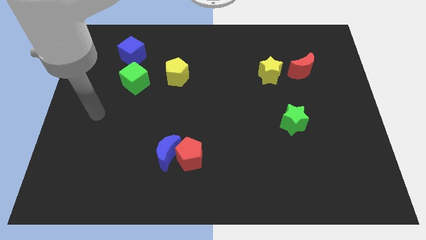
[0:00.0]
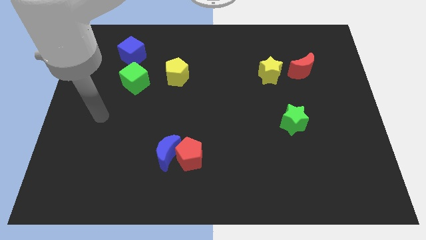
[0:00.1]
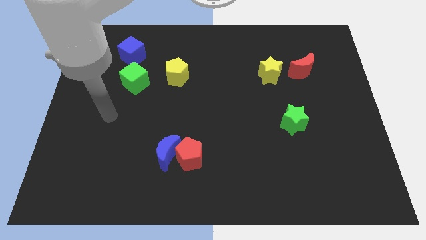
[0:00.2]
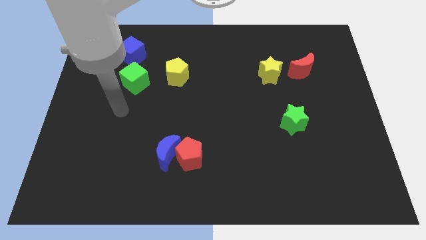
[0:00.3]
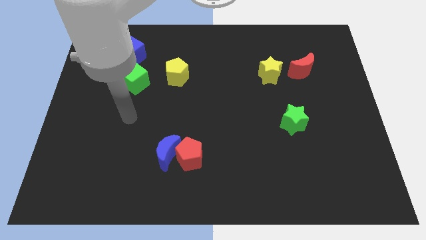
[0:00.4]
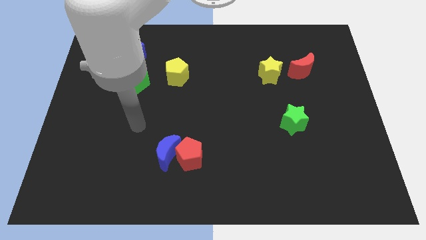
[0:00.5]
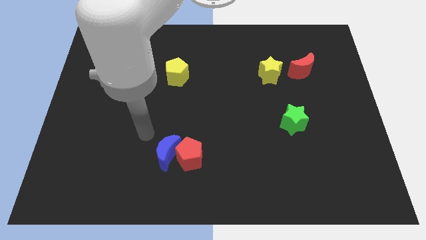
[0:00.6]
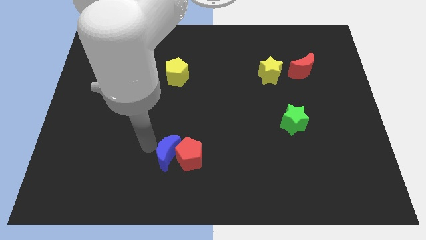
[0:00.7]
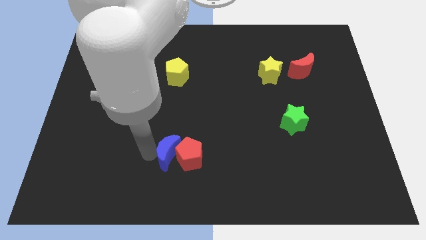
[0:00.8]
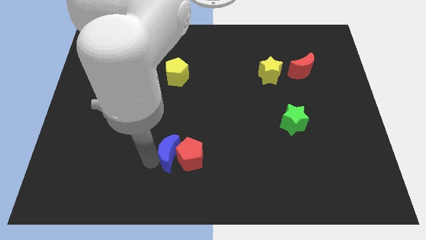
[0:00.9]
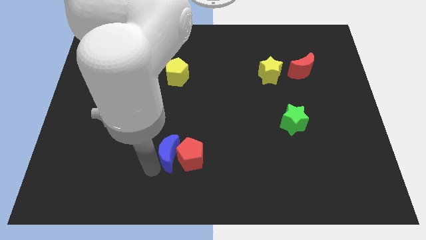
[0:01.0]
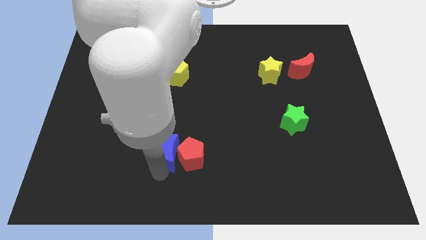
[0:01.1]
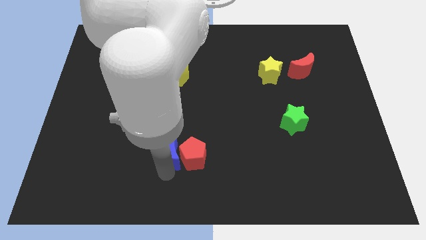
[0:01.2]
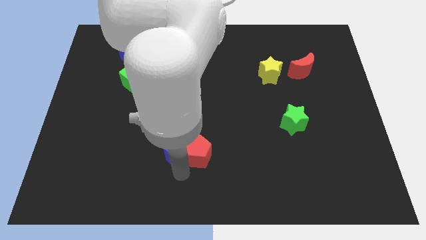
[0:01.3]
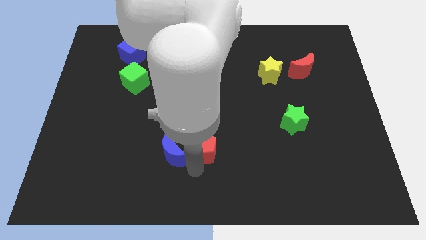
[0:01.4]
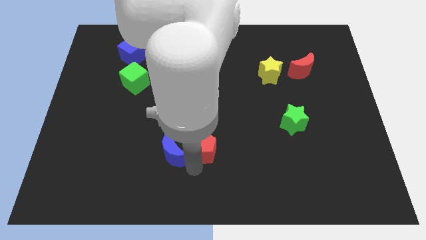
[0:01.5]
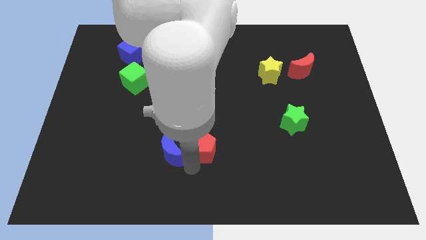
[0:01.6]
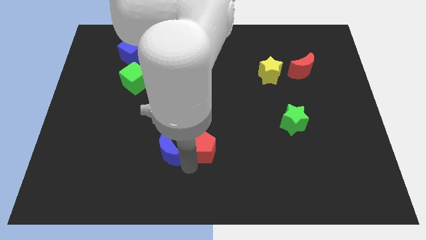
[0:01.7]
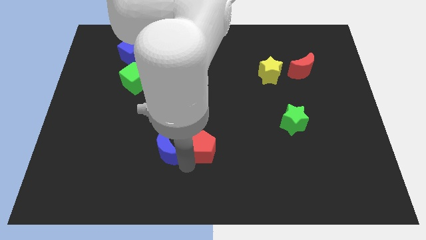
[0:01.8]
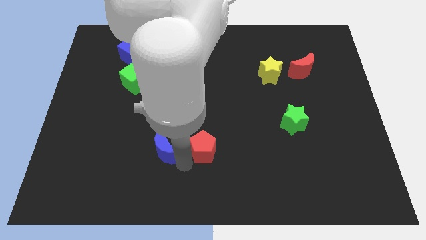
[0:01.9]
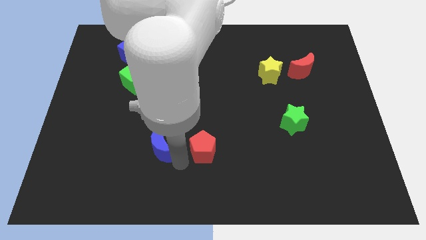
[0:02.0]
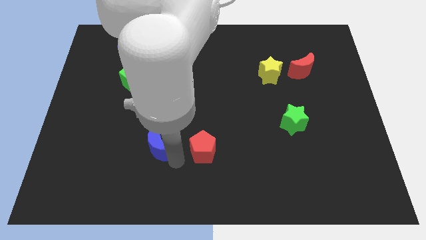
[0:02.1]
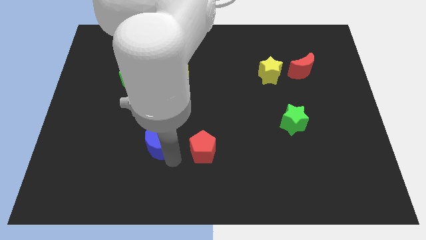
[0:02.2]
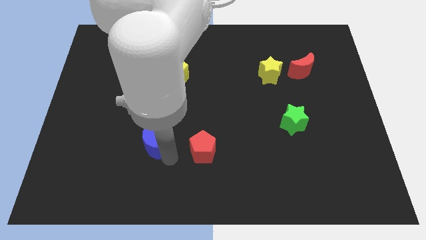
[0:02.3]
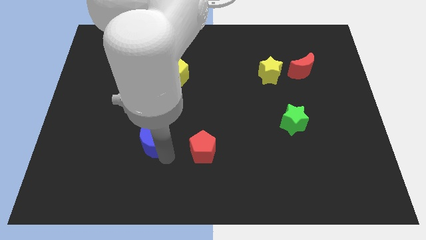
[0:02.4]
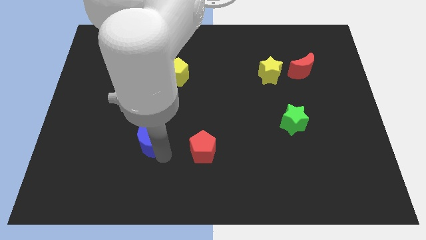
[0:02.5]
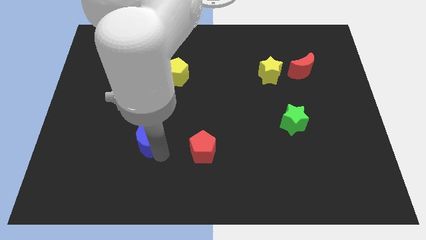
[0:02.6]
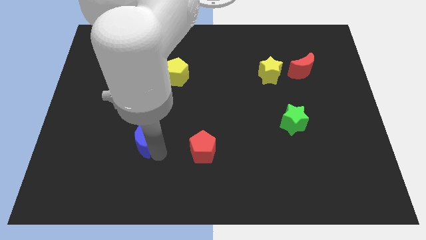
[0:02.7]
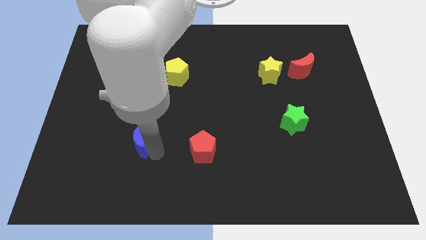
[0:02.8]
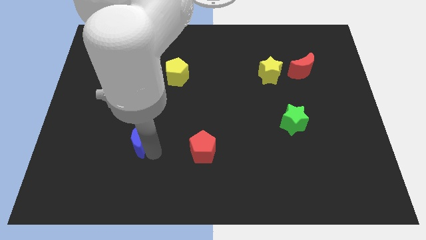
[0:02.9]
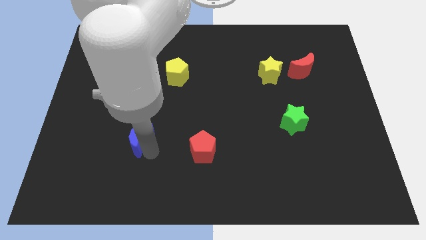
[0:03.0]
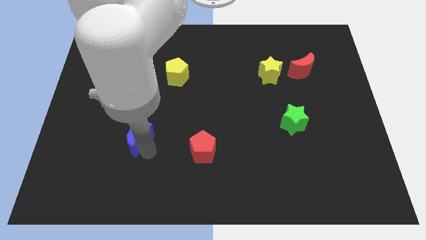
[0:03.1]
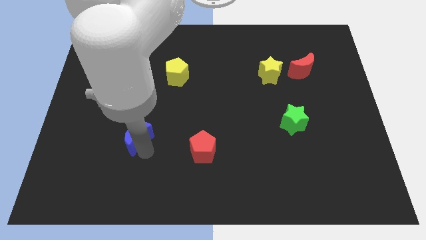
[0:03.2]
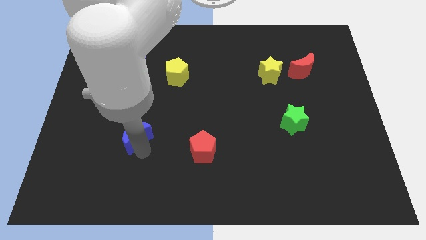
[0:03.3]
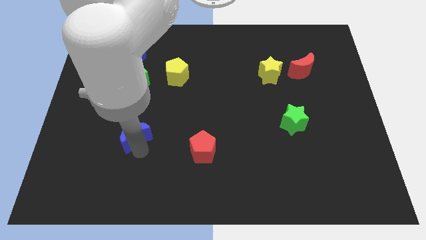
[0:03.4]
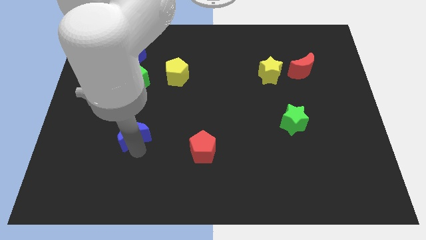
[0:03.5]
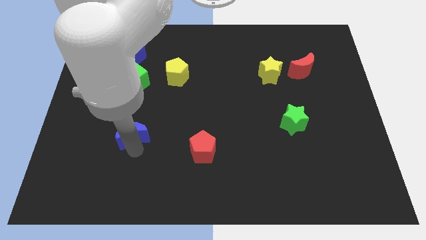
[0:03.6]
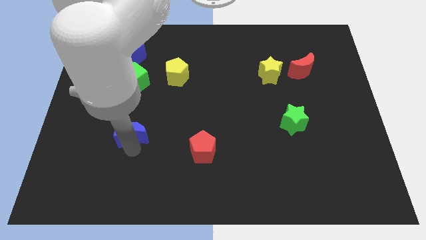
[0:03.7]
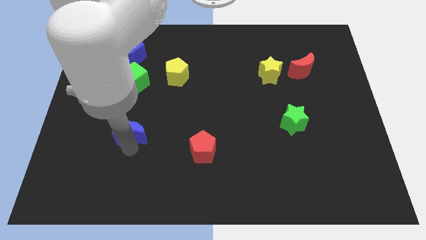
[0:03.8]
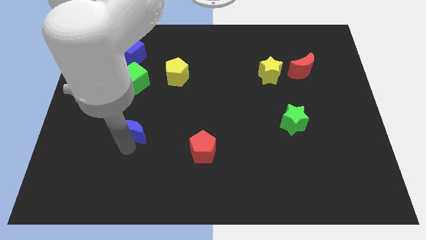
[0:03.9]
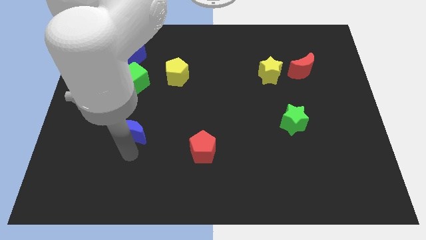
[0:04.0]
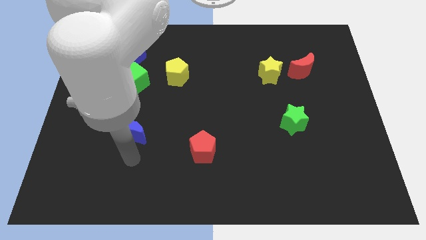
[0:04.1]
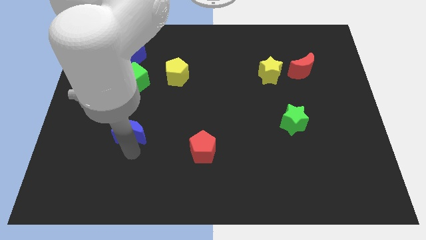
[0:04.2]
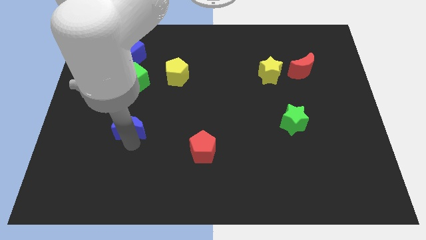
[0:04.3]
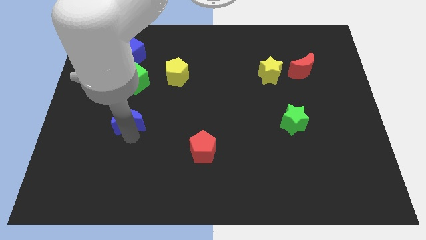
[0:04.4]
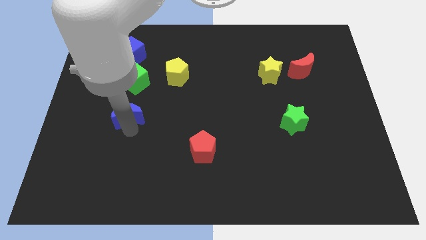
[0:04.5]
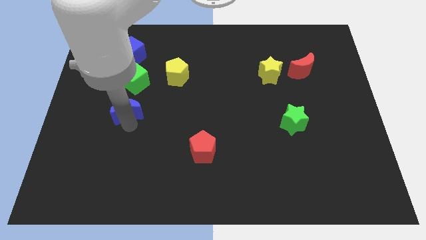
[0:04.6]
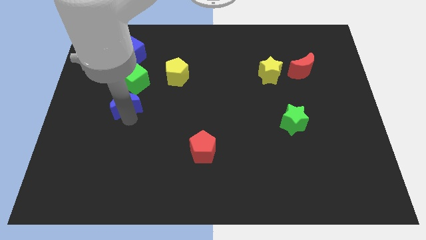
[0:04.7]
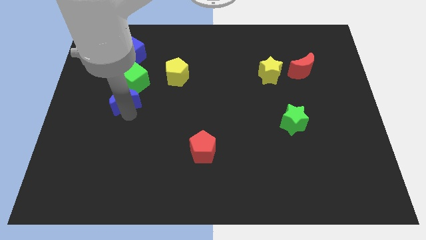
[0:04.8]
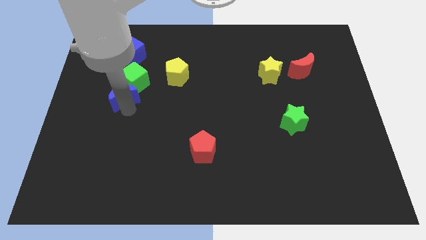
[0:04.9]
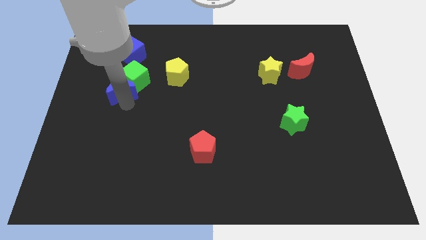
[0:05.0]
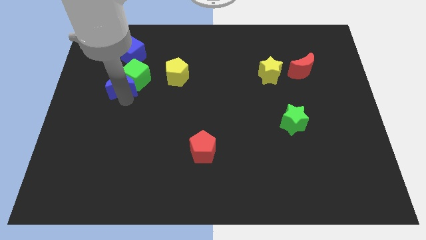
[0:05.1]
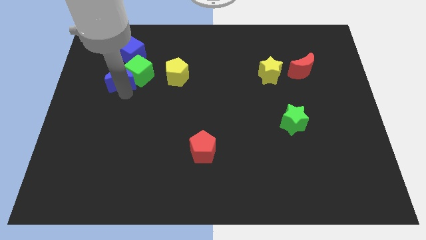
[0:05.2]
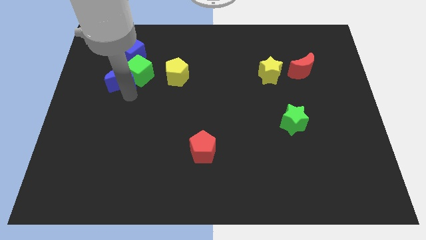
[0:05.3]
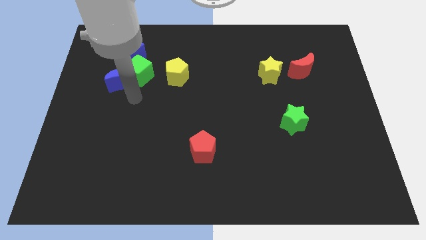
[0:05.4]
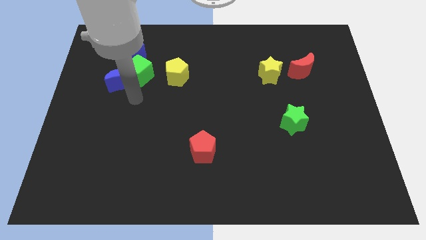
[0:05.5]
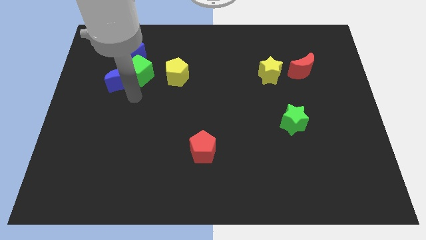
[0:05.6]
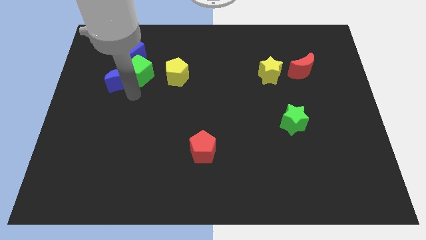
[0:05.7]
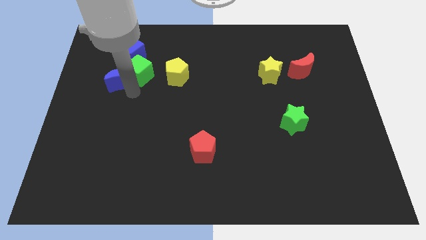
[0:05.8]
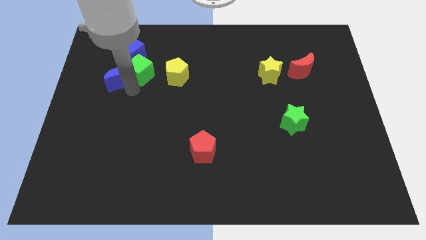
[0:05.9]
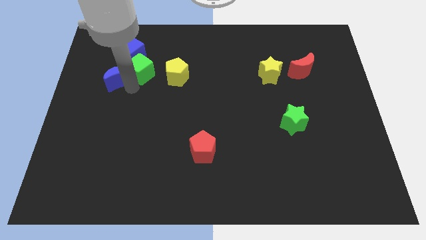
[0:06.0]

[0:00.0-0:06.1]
put the blue moon to the bottom left side of the blue cube
